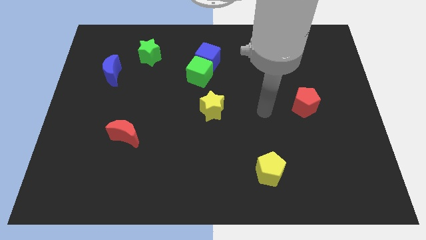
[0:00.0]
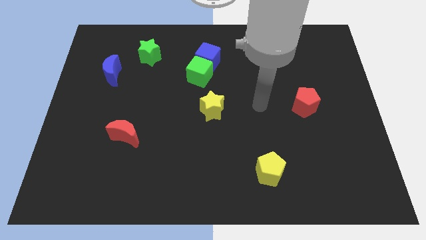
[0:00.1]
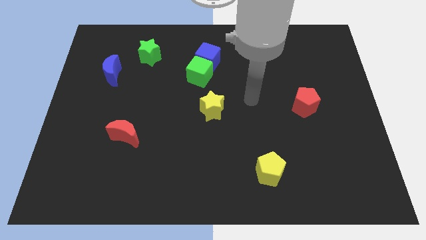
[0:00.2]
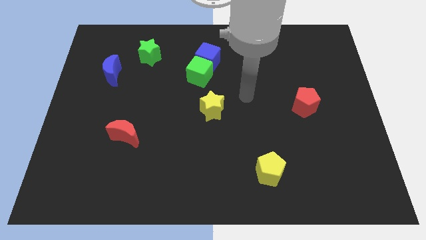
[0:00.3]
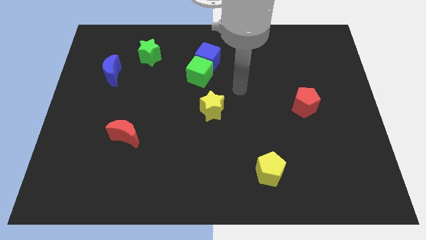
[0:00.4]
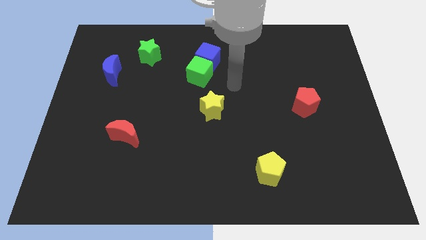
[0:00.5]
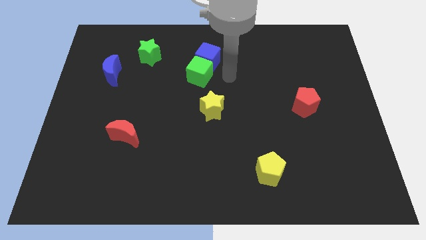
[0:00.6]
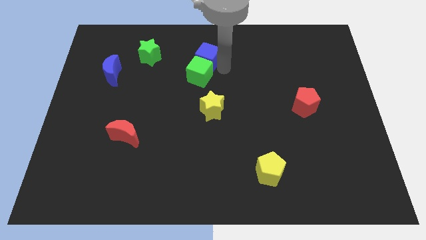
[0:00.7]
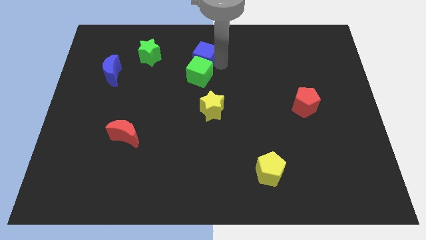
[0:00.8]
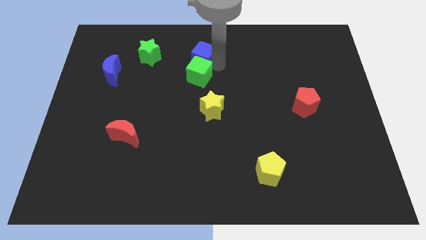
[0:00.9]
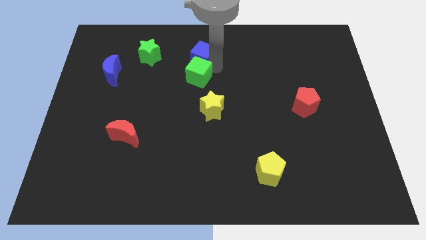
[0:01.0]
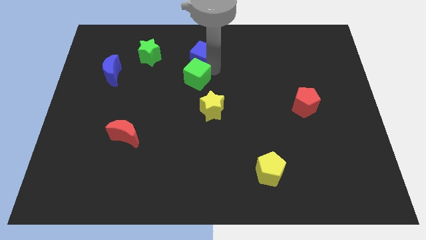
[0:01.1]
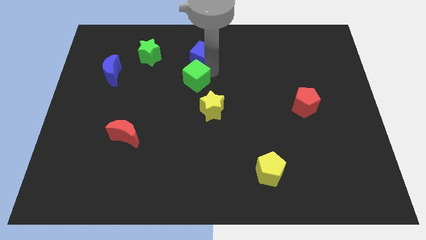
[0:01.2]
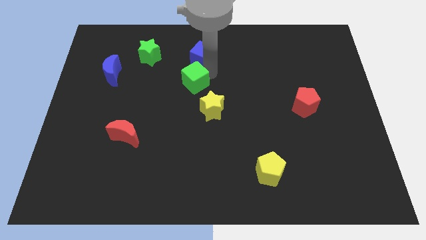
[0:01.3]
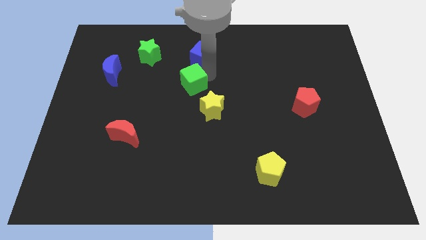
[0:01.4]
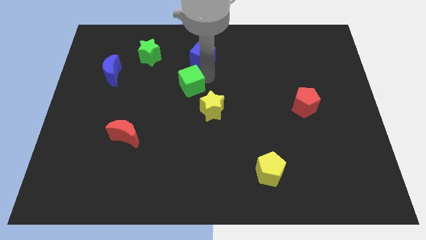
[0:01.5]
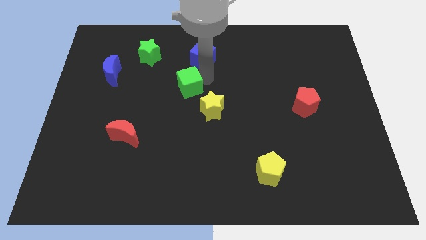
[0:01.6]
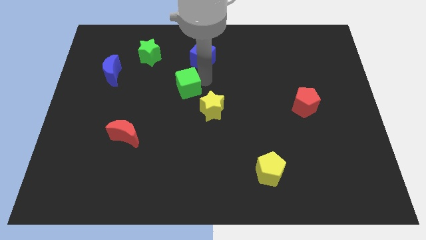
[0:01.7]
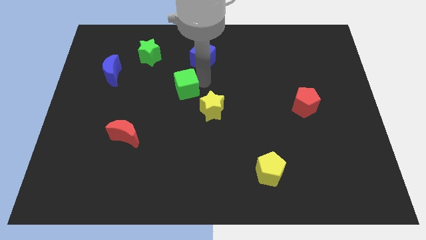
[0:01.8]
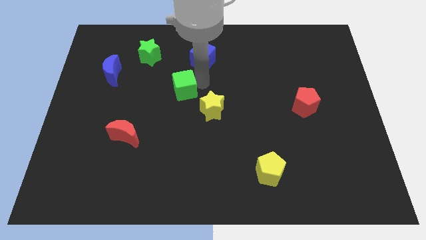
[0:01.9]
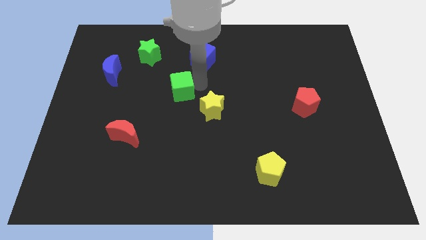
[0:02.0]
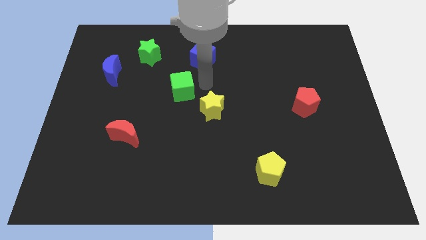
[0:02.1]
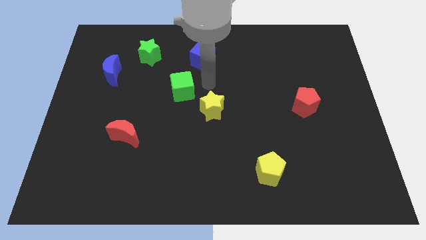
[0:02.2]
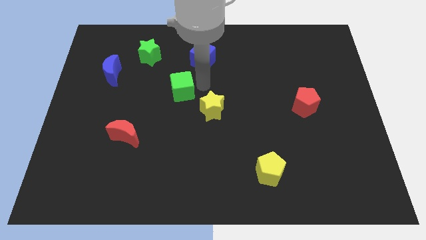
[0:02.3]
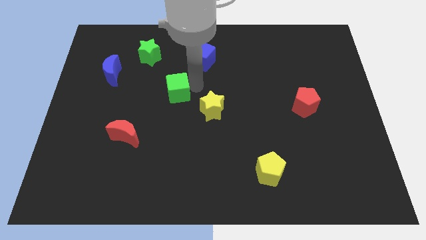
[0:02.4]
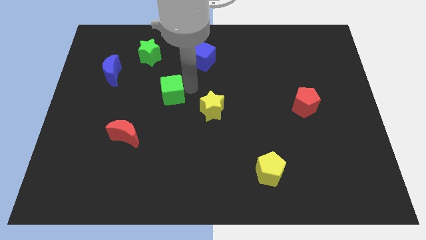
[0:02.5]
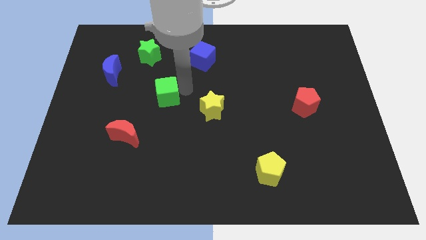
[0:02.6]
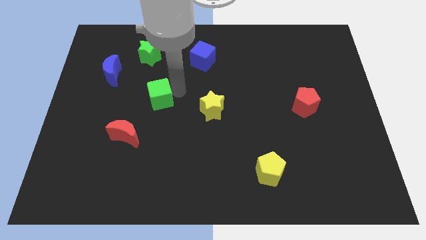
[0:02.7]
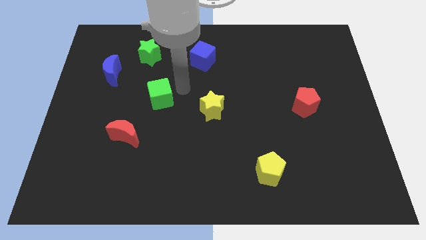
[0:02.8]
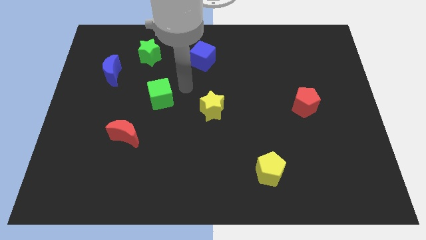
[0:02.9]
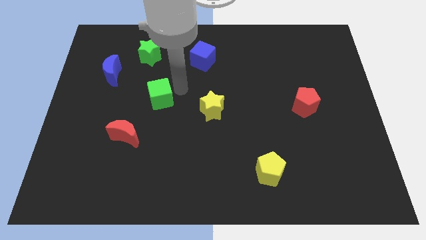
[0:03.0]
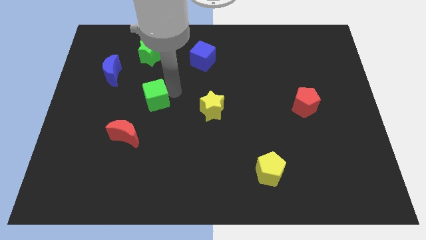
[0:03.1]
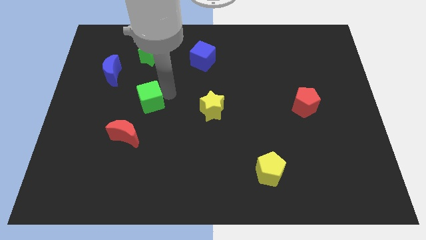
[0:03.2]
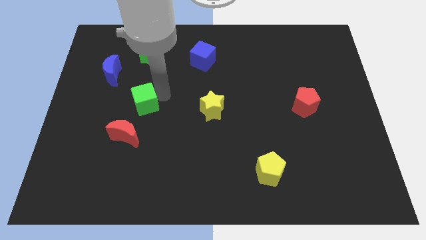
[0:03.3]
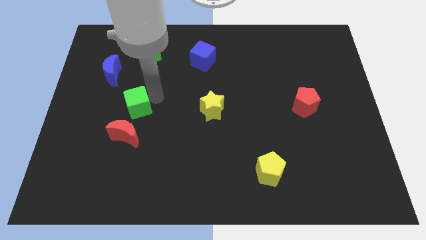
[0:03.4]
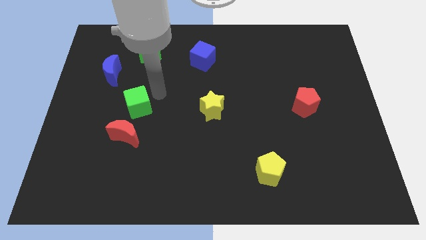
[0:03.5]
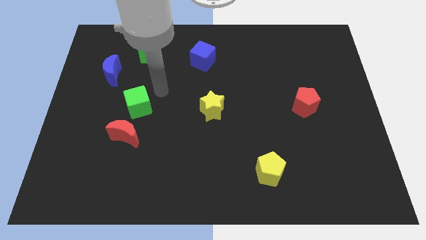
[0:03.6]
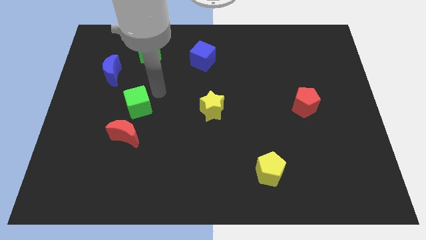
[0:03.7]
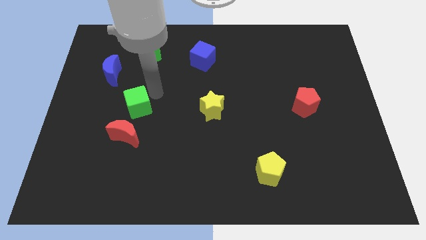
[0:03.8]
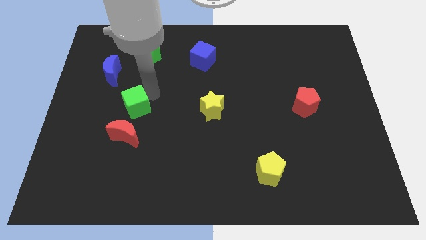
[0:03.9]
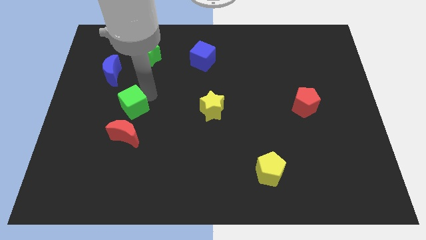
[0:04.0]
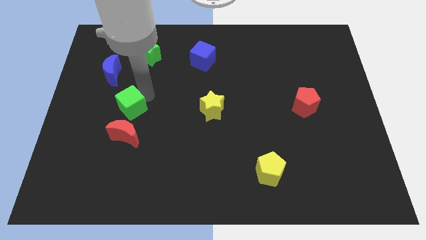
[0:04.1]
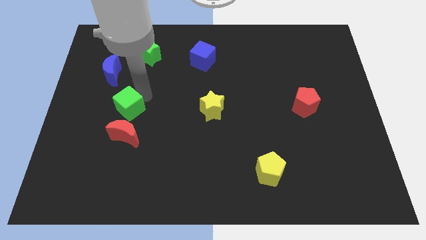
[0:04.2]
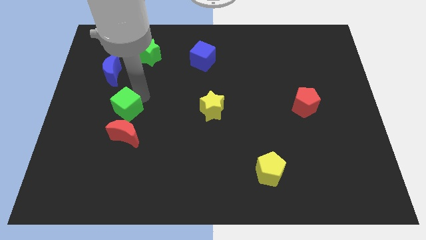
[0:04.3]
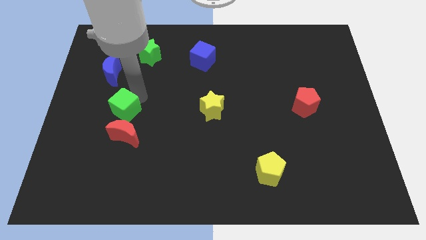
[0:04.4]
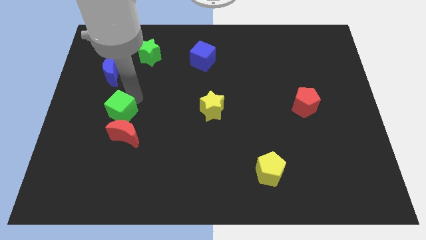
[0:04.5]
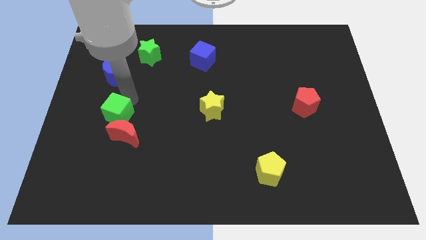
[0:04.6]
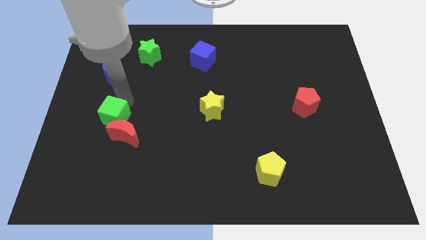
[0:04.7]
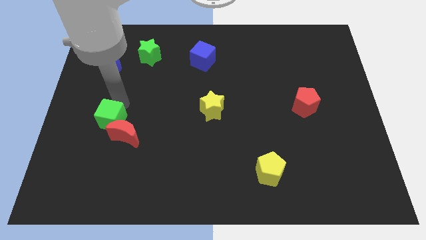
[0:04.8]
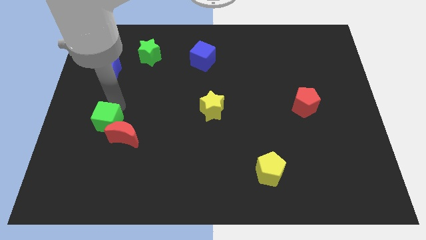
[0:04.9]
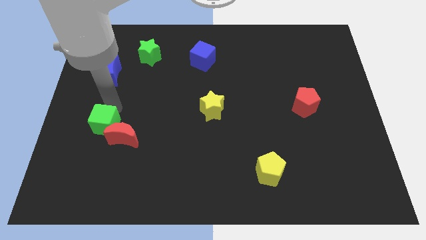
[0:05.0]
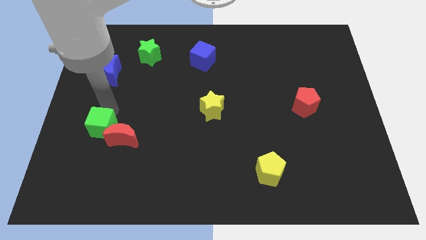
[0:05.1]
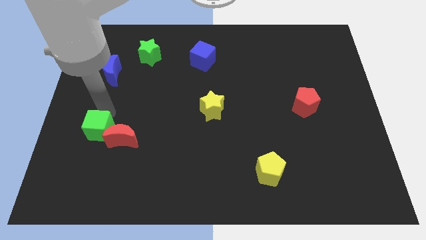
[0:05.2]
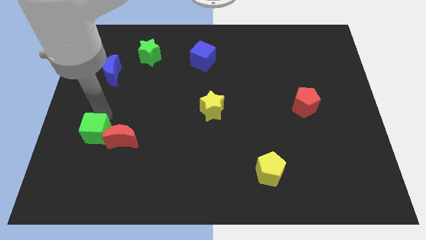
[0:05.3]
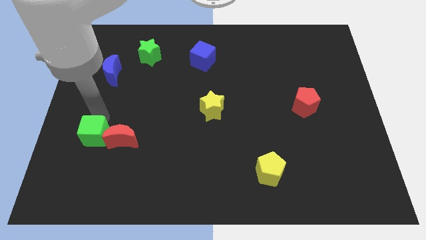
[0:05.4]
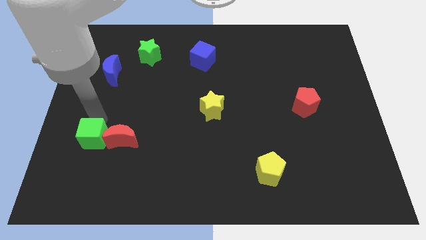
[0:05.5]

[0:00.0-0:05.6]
push the green cube to the bottom left of the red moon

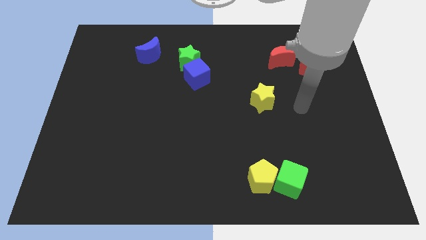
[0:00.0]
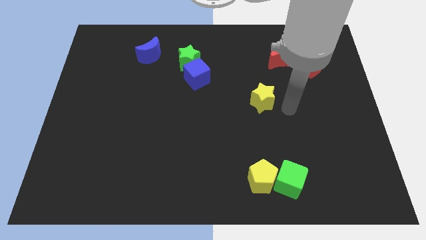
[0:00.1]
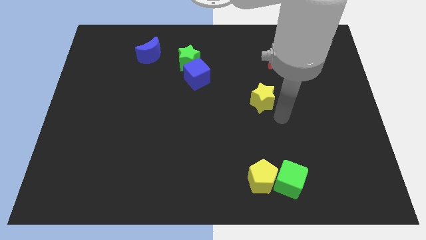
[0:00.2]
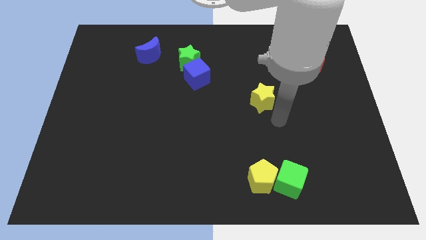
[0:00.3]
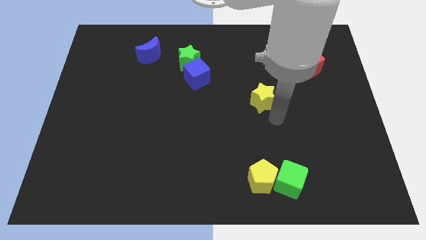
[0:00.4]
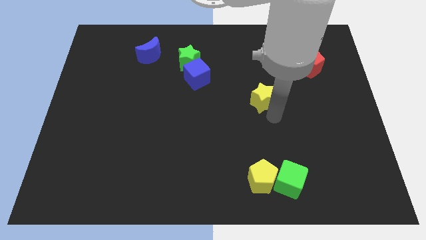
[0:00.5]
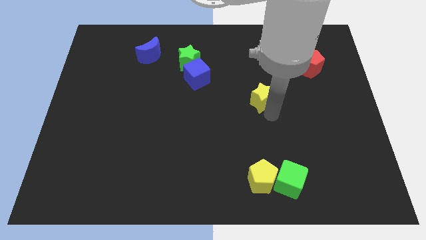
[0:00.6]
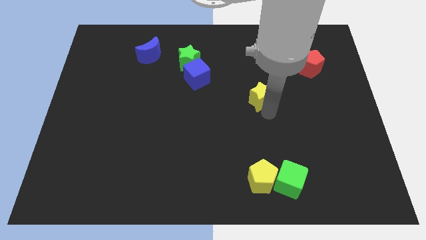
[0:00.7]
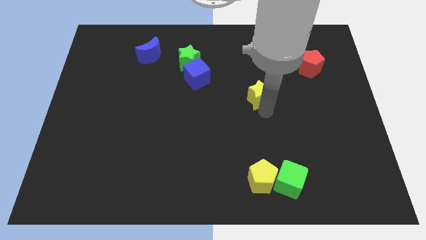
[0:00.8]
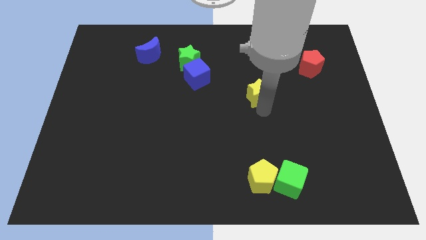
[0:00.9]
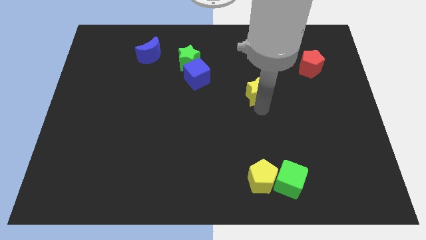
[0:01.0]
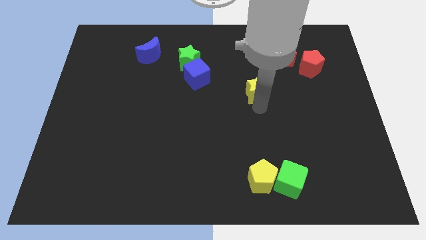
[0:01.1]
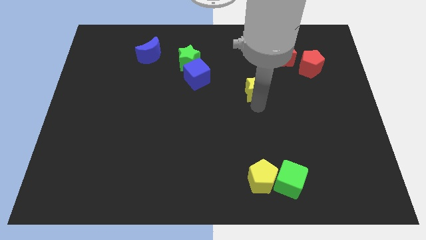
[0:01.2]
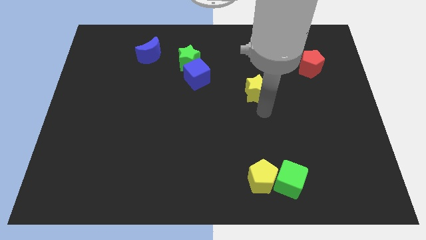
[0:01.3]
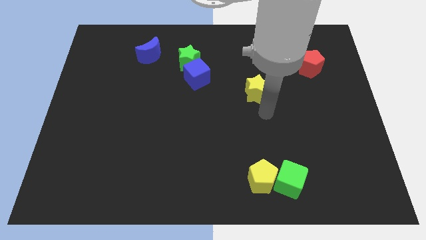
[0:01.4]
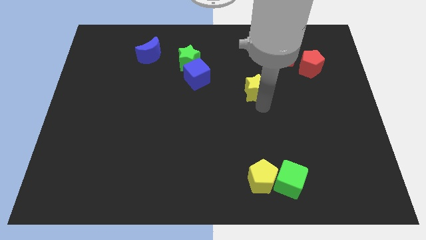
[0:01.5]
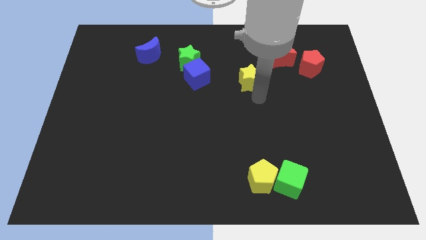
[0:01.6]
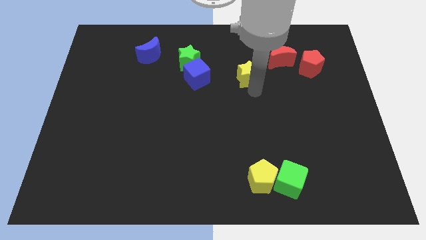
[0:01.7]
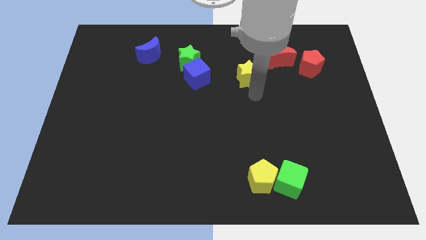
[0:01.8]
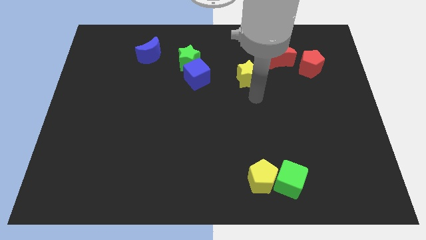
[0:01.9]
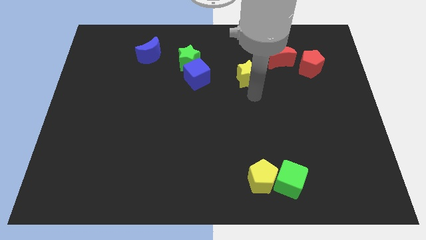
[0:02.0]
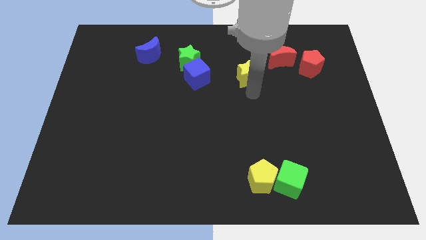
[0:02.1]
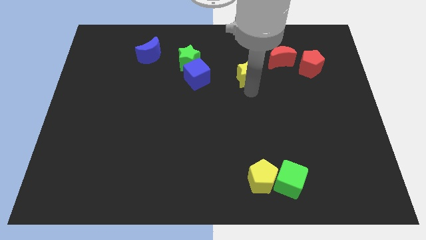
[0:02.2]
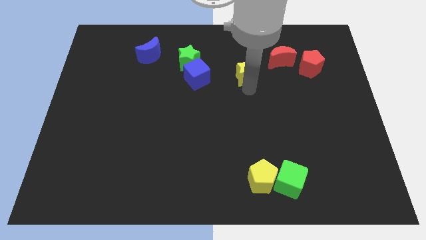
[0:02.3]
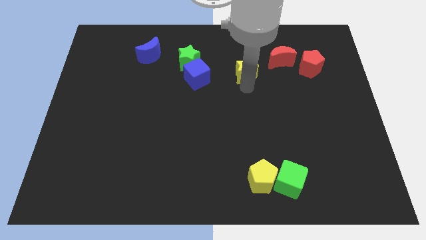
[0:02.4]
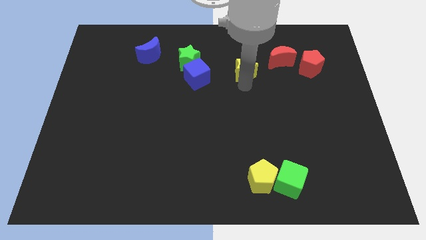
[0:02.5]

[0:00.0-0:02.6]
slide the yellow star left of the red moon
